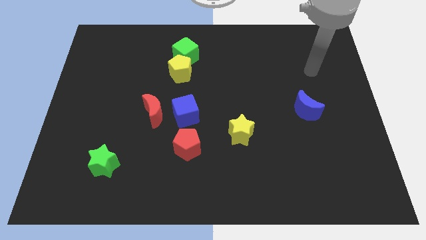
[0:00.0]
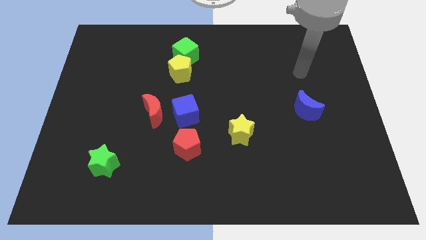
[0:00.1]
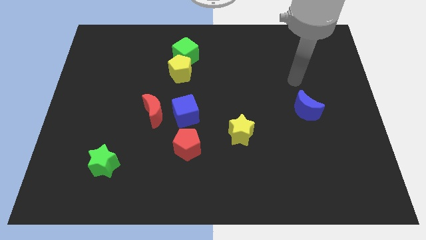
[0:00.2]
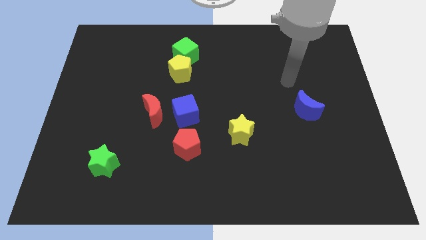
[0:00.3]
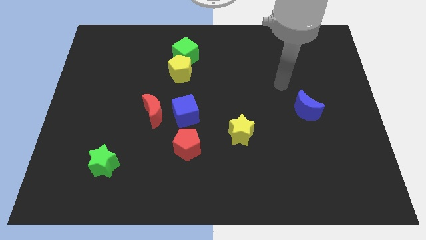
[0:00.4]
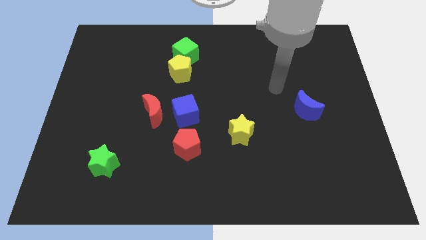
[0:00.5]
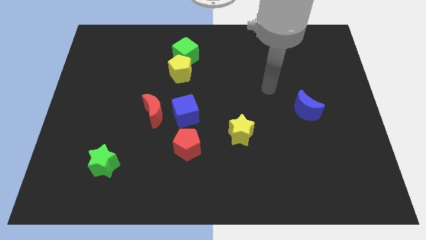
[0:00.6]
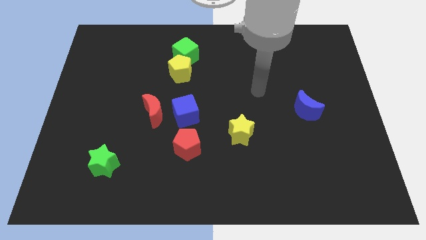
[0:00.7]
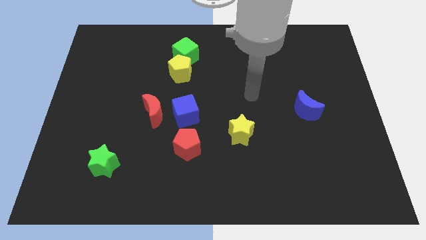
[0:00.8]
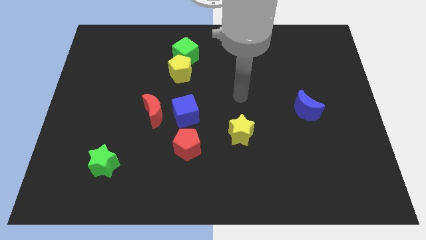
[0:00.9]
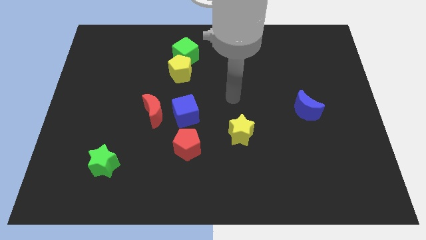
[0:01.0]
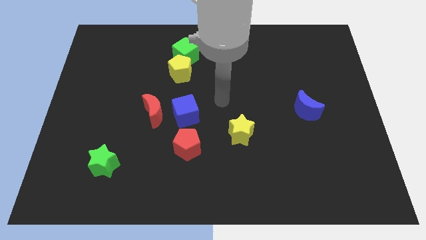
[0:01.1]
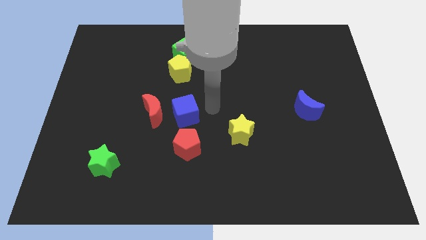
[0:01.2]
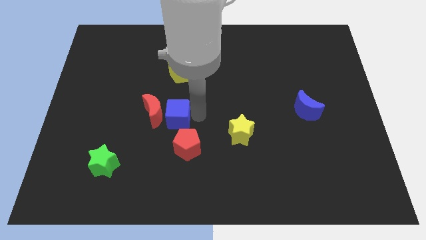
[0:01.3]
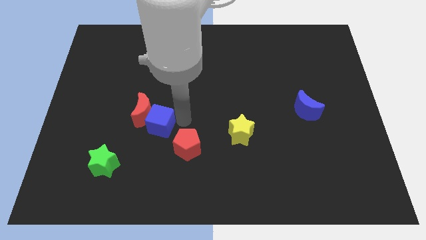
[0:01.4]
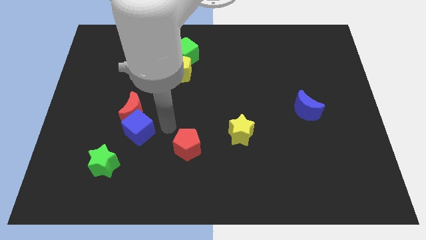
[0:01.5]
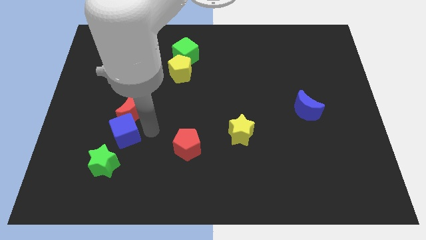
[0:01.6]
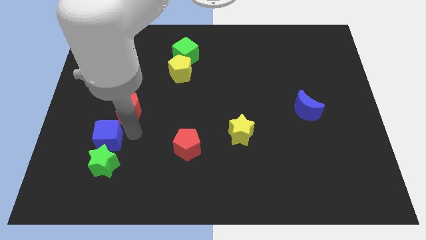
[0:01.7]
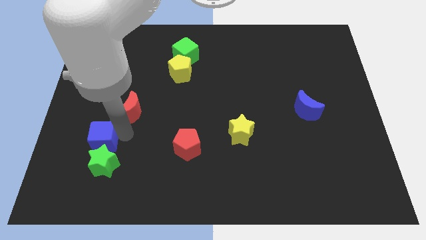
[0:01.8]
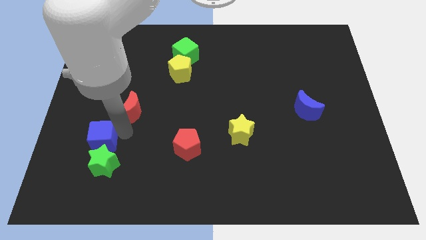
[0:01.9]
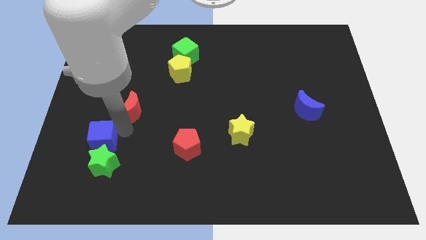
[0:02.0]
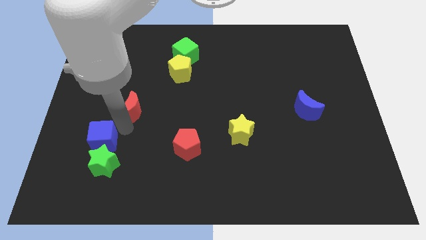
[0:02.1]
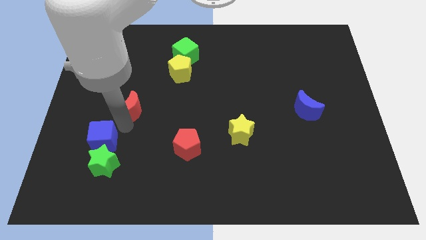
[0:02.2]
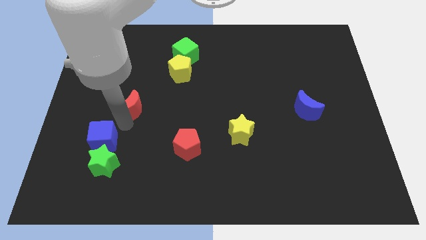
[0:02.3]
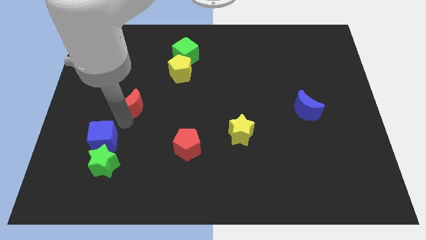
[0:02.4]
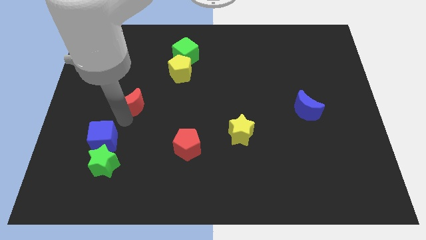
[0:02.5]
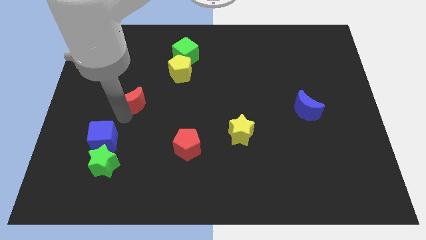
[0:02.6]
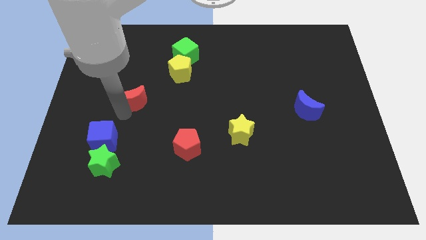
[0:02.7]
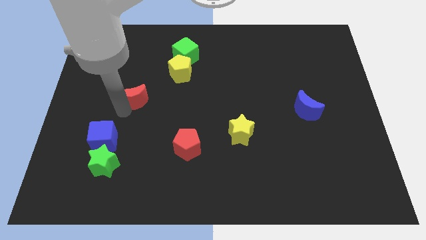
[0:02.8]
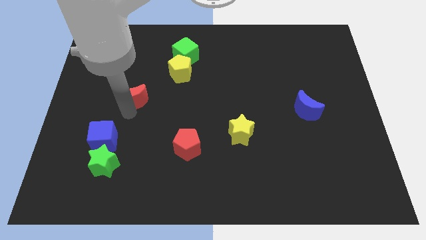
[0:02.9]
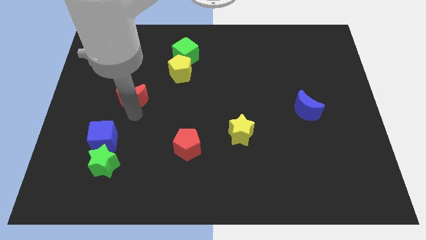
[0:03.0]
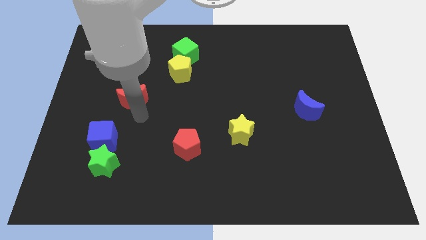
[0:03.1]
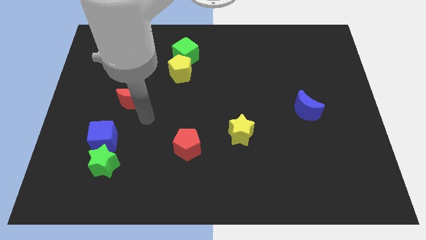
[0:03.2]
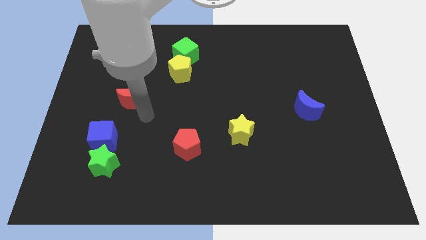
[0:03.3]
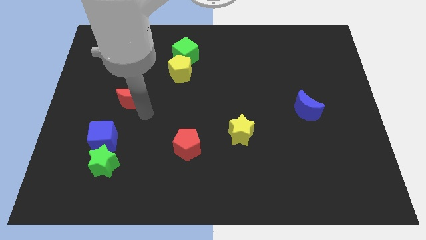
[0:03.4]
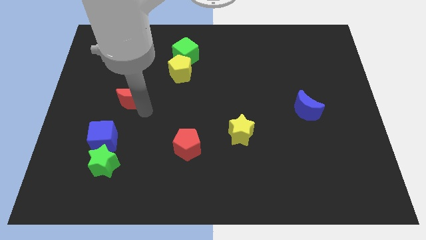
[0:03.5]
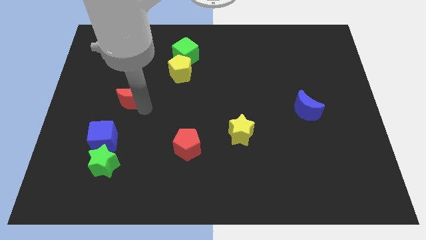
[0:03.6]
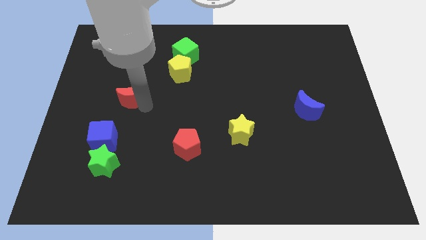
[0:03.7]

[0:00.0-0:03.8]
slightly slide the red moon up and left

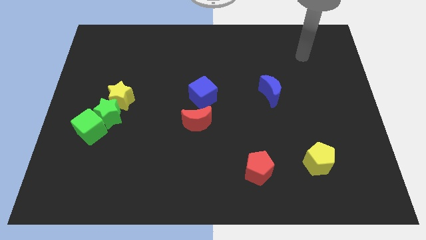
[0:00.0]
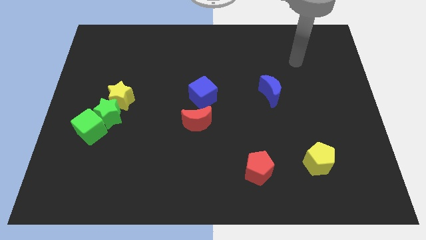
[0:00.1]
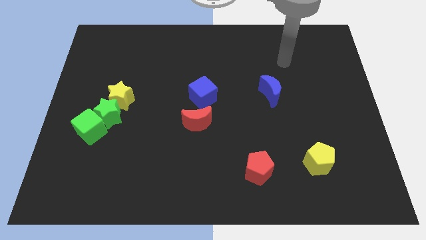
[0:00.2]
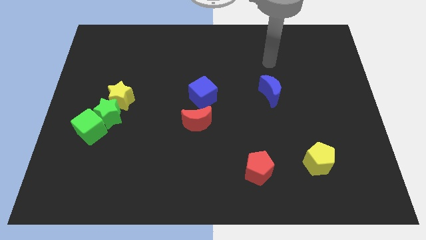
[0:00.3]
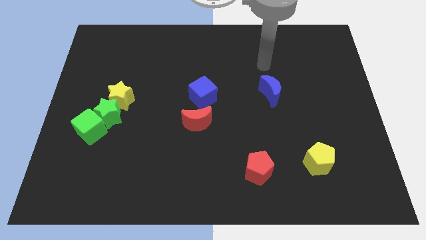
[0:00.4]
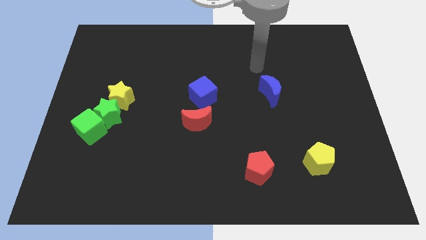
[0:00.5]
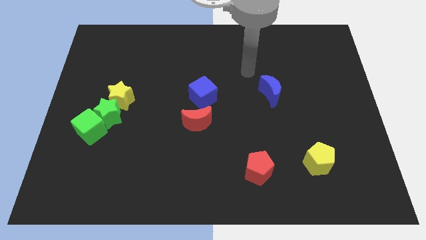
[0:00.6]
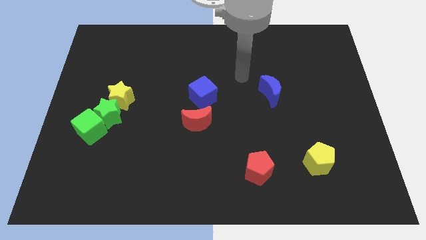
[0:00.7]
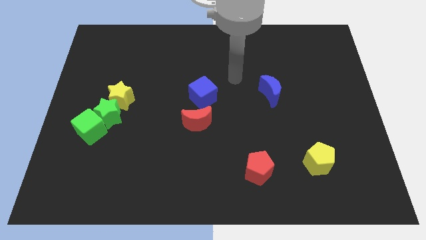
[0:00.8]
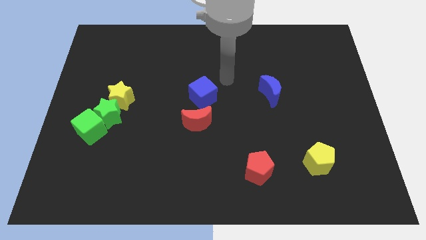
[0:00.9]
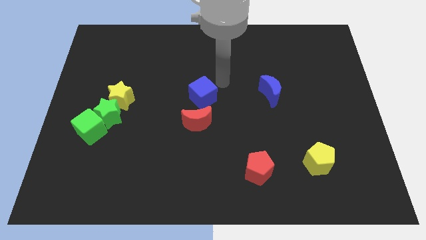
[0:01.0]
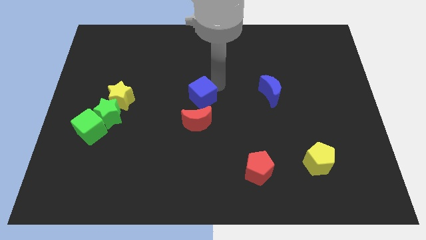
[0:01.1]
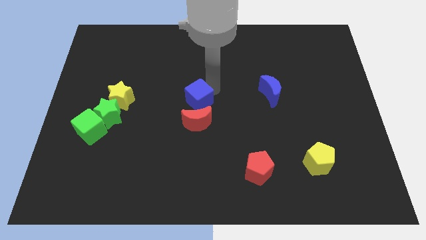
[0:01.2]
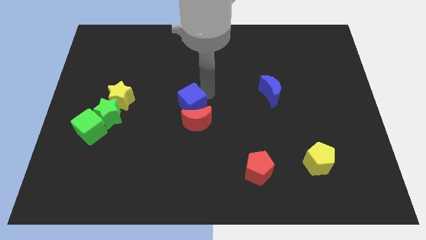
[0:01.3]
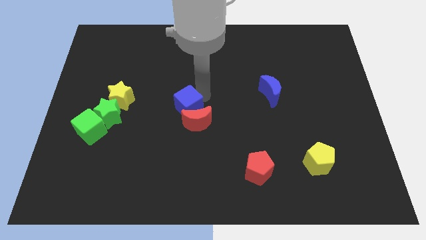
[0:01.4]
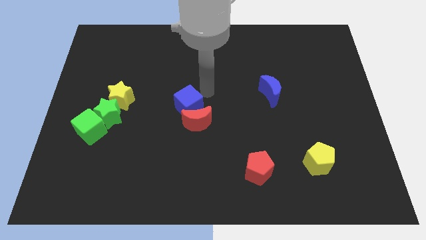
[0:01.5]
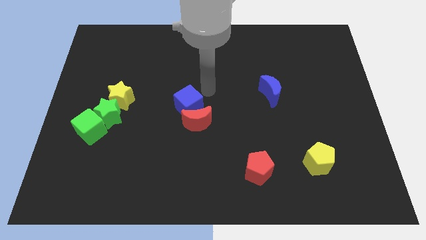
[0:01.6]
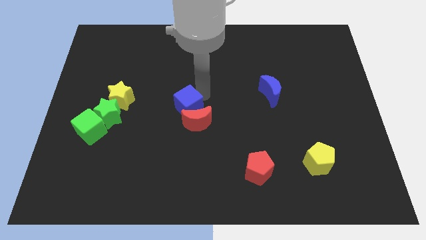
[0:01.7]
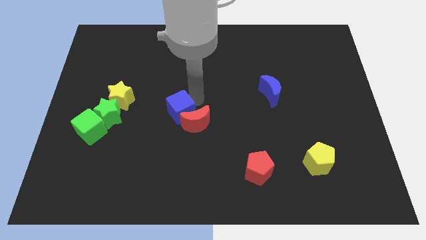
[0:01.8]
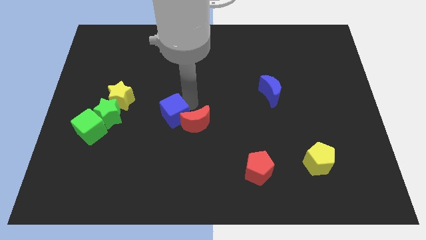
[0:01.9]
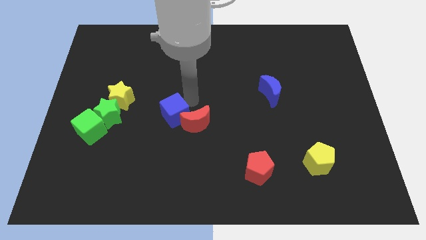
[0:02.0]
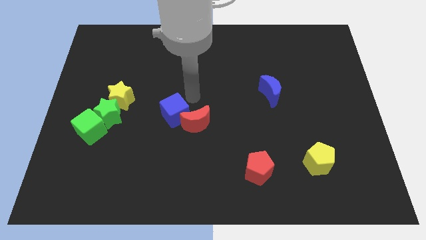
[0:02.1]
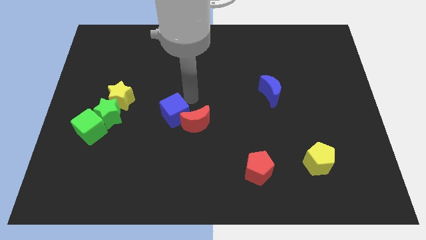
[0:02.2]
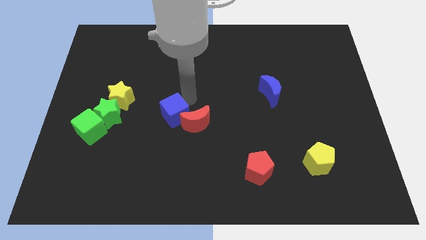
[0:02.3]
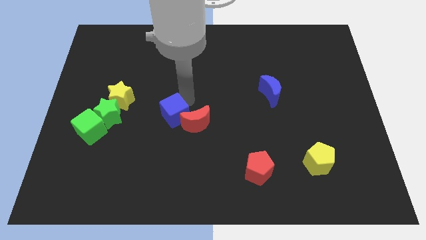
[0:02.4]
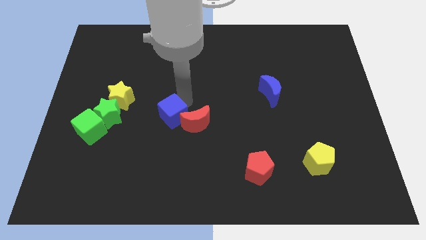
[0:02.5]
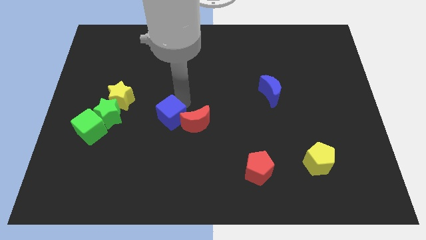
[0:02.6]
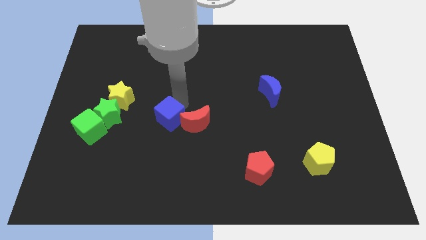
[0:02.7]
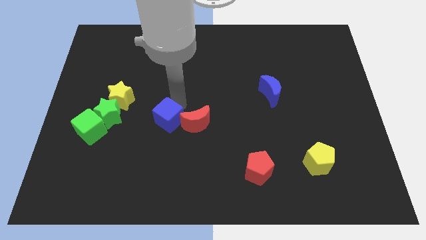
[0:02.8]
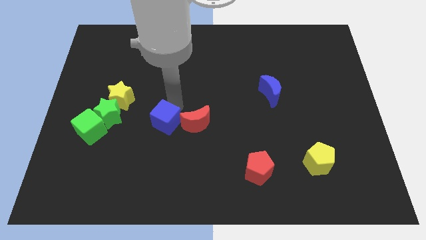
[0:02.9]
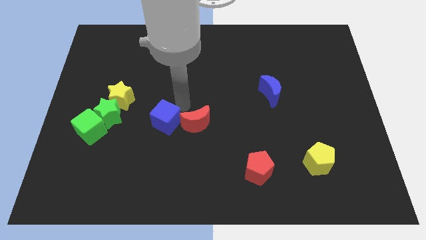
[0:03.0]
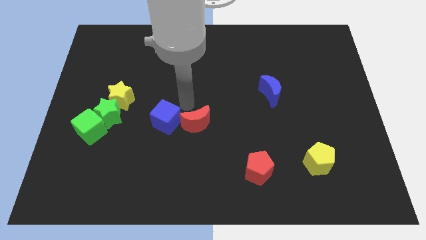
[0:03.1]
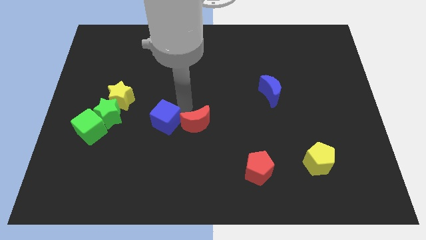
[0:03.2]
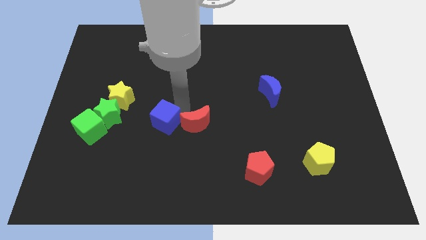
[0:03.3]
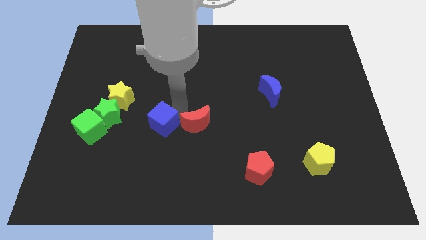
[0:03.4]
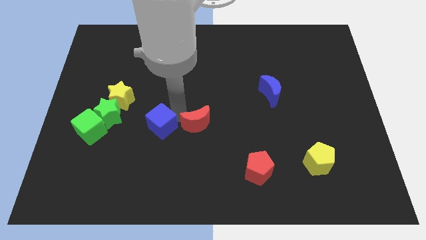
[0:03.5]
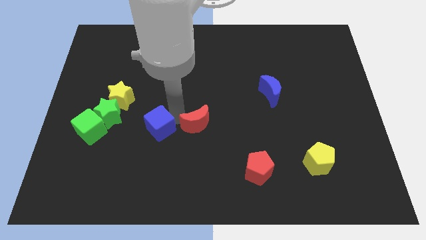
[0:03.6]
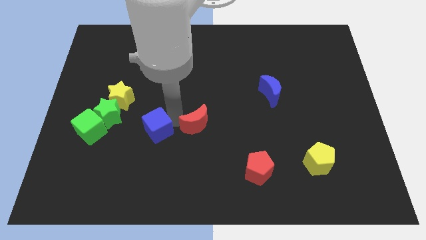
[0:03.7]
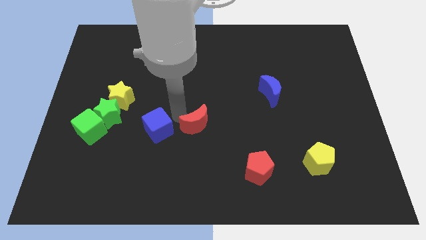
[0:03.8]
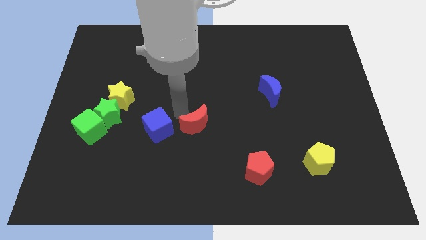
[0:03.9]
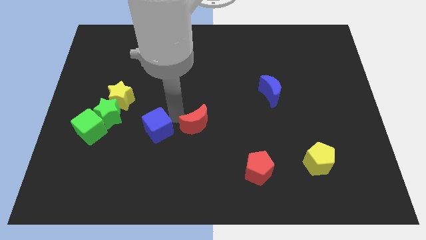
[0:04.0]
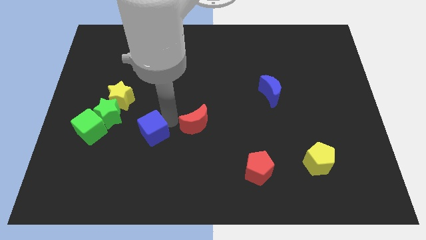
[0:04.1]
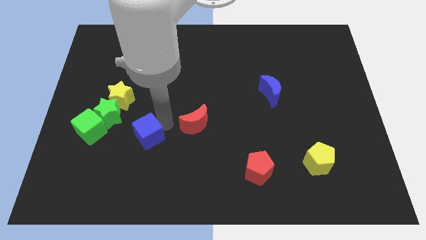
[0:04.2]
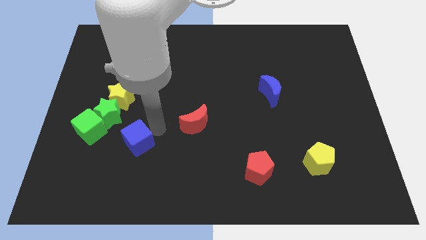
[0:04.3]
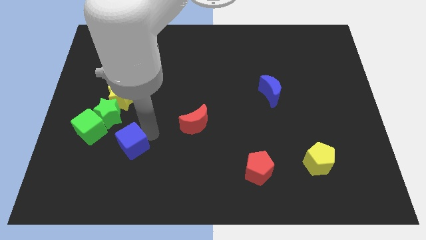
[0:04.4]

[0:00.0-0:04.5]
slide the blue cube down and left
